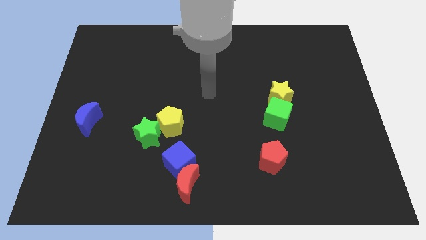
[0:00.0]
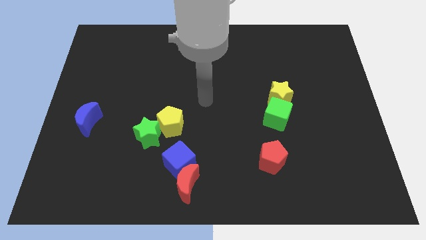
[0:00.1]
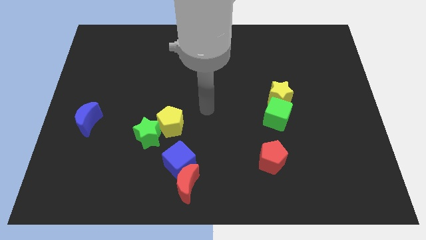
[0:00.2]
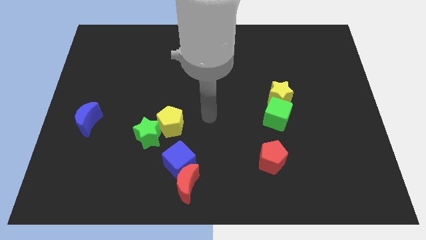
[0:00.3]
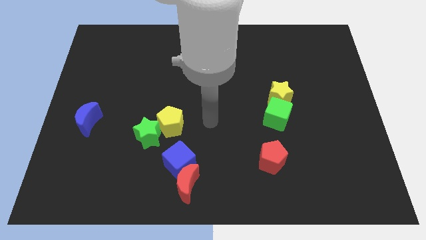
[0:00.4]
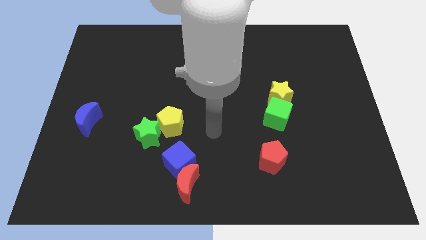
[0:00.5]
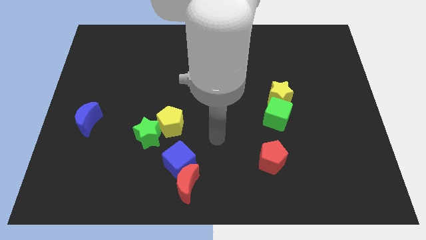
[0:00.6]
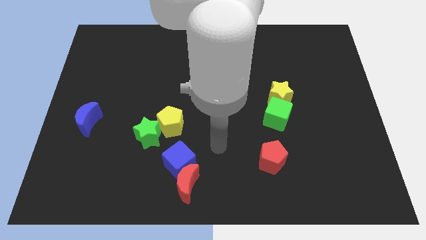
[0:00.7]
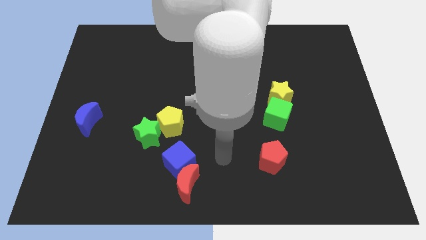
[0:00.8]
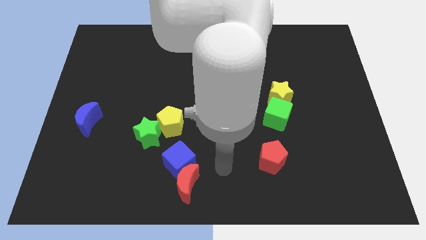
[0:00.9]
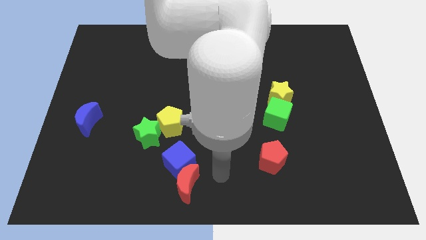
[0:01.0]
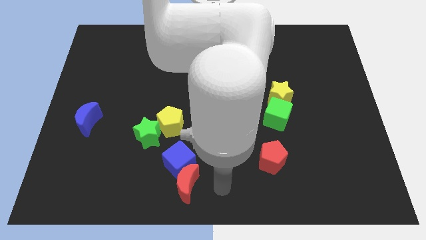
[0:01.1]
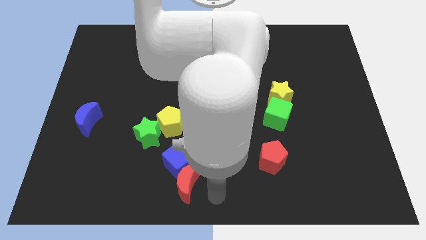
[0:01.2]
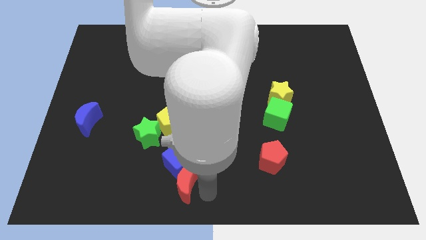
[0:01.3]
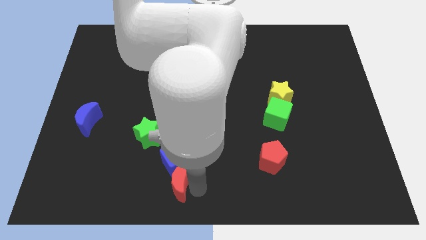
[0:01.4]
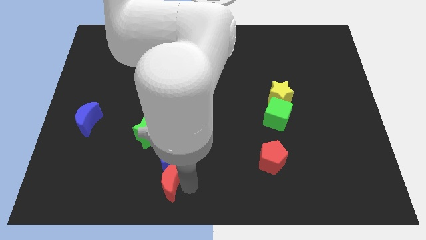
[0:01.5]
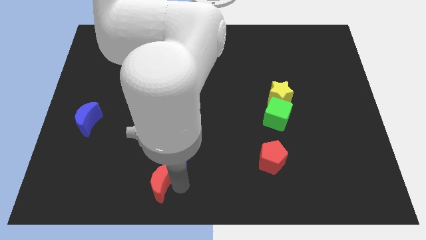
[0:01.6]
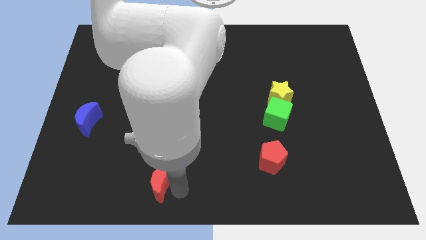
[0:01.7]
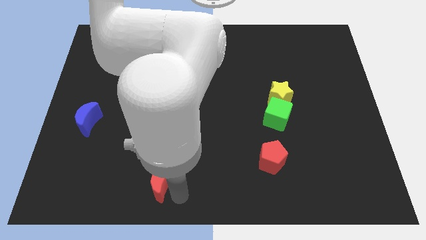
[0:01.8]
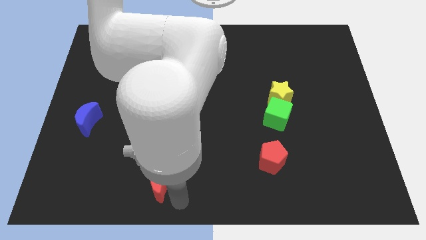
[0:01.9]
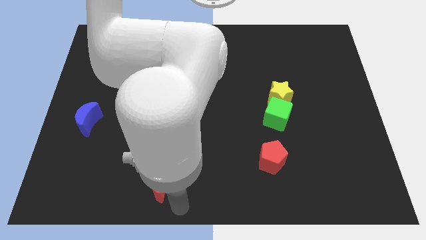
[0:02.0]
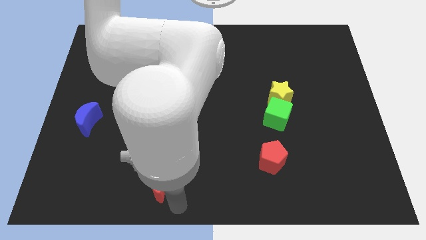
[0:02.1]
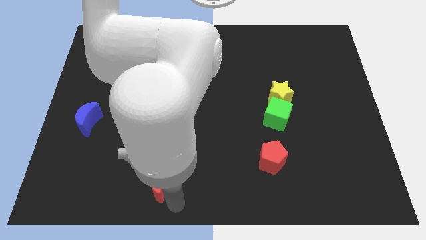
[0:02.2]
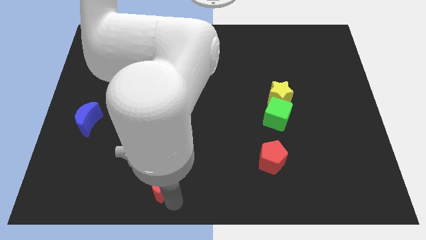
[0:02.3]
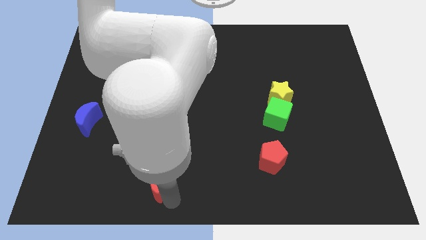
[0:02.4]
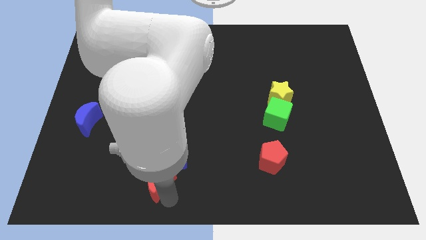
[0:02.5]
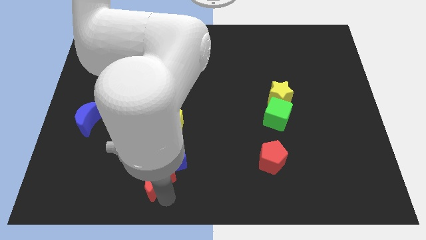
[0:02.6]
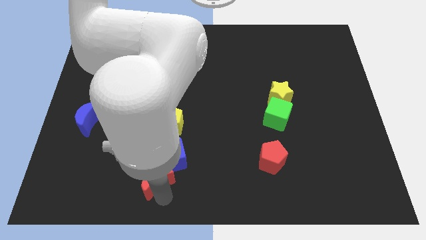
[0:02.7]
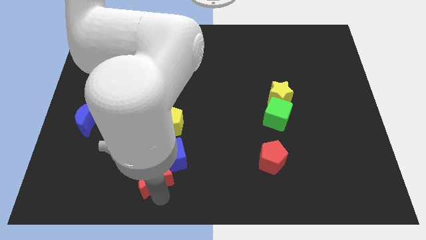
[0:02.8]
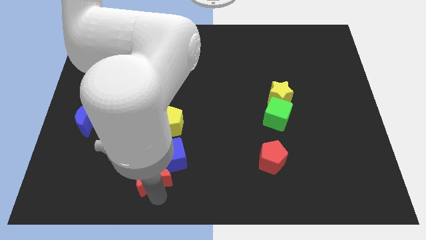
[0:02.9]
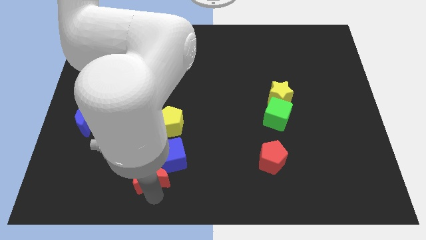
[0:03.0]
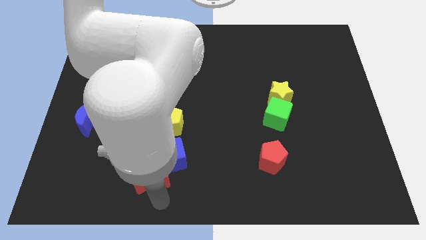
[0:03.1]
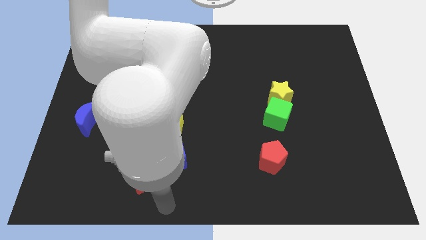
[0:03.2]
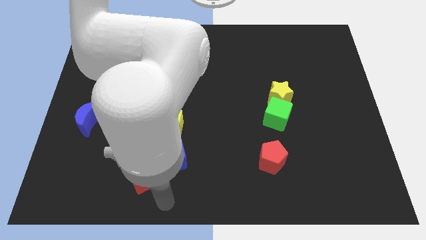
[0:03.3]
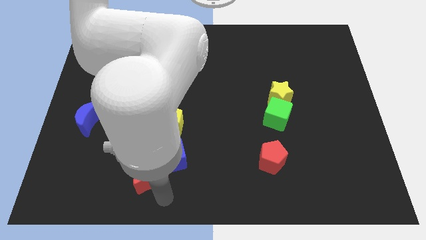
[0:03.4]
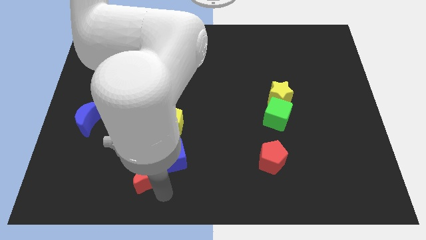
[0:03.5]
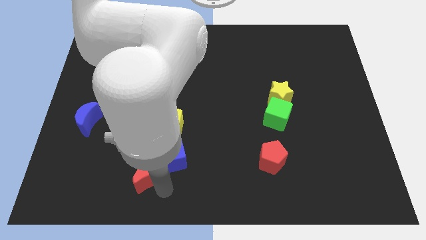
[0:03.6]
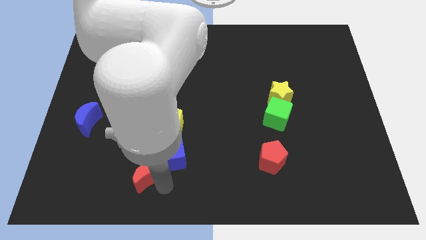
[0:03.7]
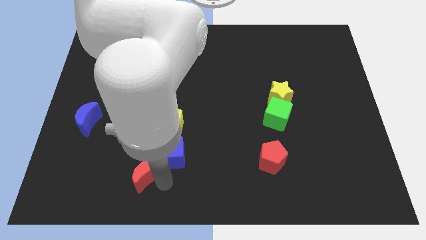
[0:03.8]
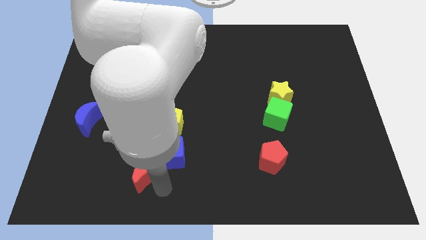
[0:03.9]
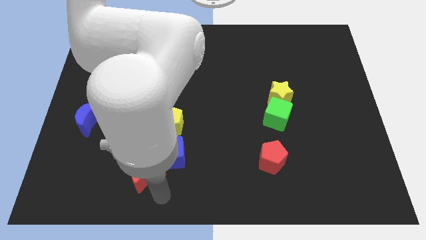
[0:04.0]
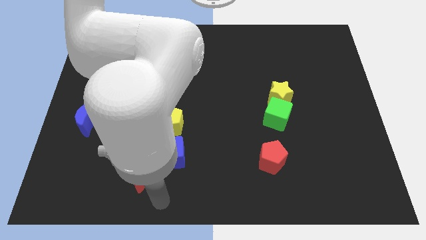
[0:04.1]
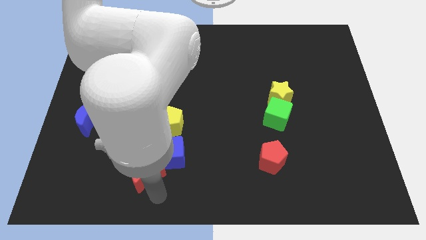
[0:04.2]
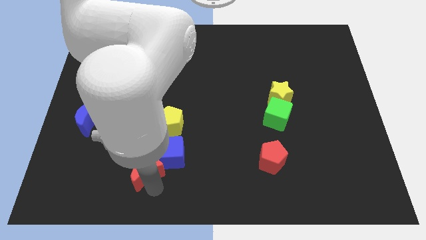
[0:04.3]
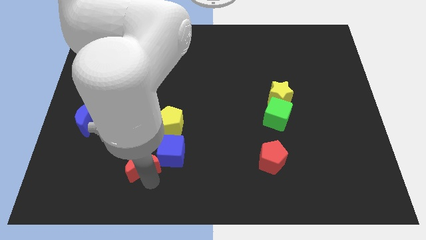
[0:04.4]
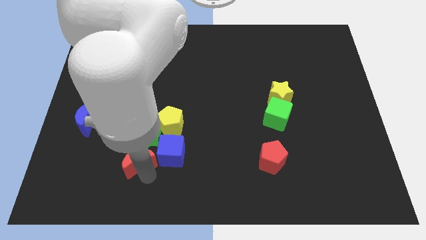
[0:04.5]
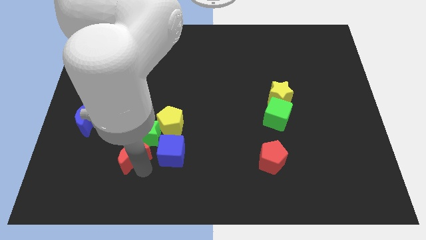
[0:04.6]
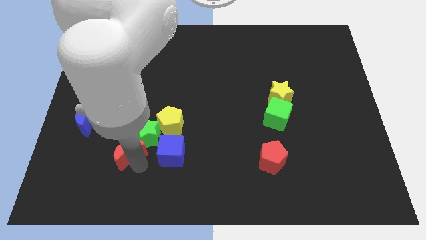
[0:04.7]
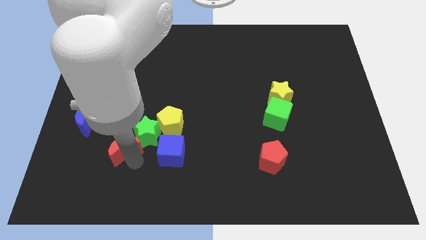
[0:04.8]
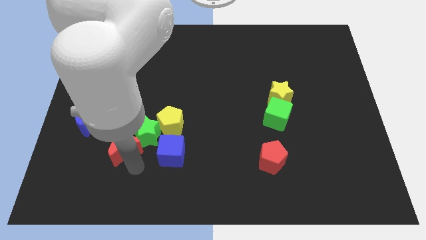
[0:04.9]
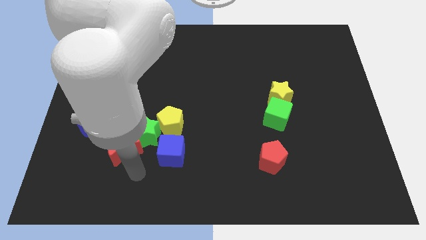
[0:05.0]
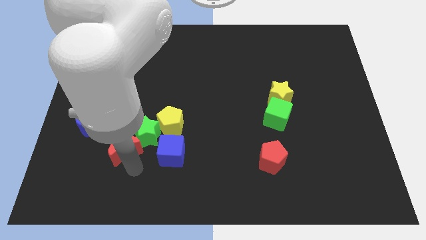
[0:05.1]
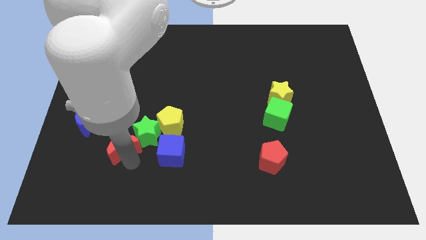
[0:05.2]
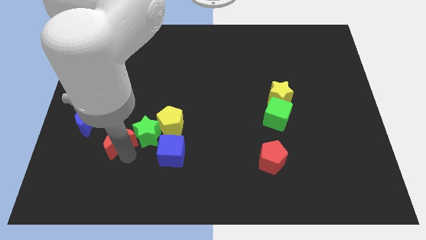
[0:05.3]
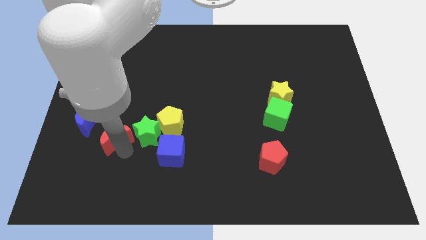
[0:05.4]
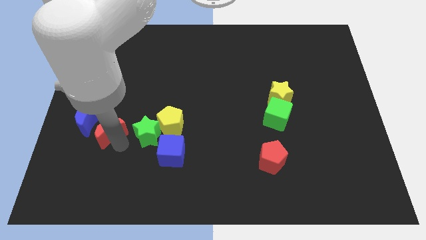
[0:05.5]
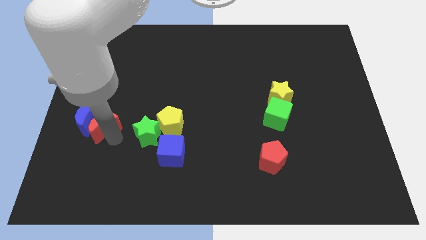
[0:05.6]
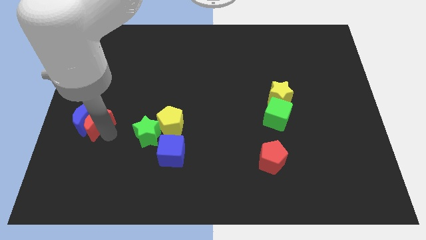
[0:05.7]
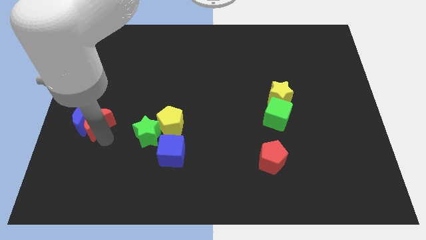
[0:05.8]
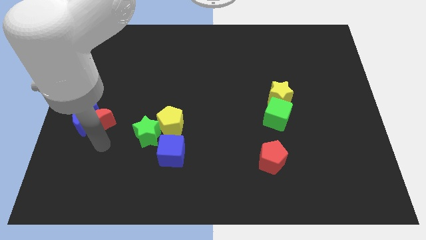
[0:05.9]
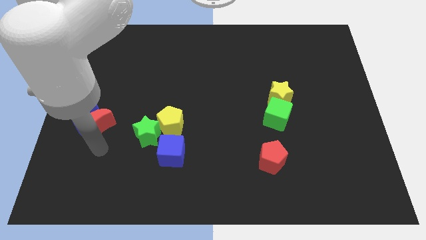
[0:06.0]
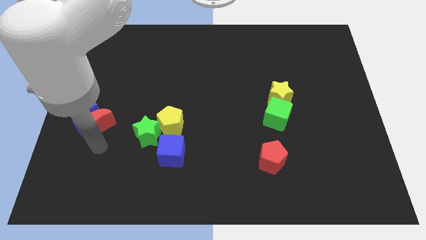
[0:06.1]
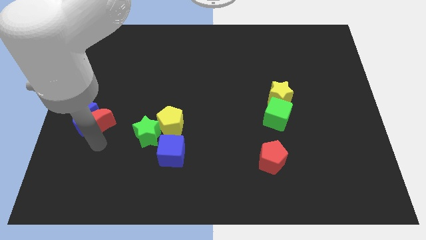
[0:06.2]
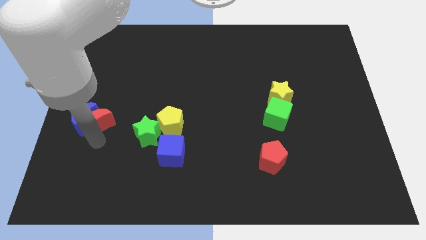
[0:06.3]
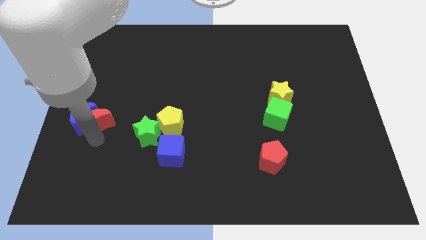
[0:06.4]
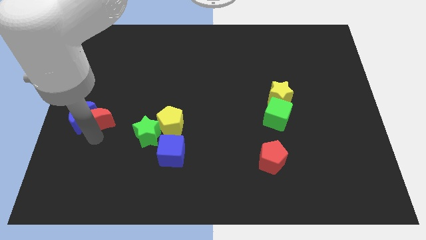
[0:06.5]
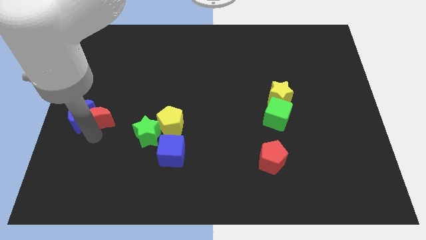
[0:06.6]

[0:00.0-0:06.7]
slide the red moon to the left side of the board
